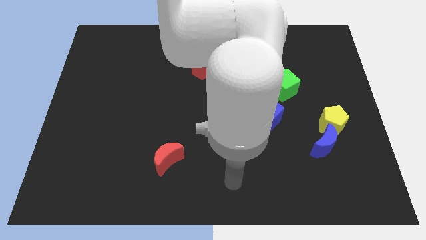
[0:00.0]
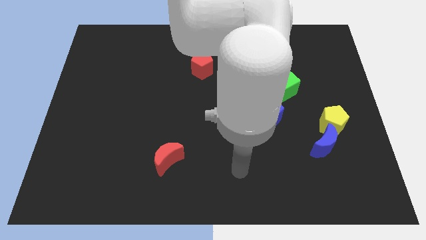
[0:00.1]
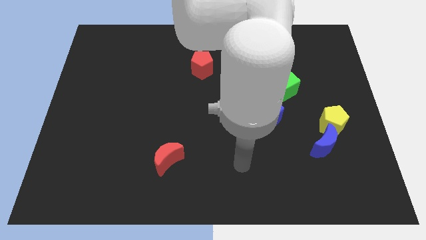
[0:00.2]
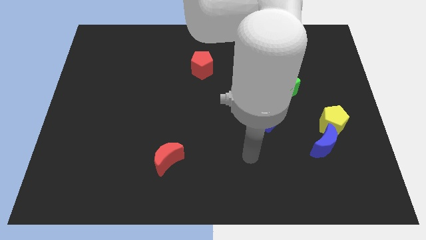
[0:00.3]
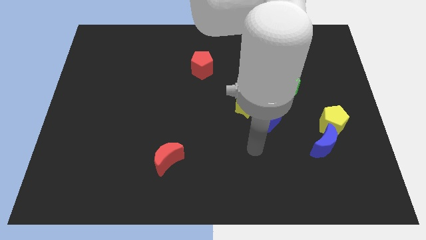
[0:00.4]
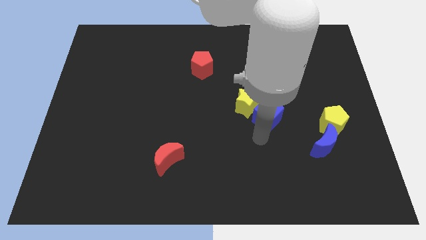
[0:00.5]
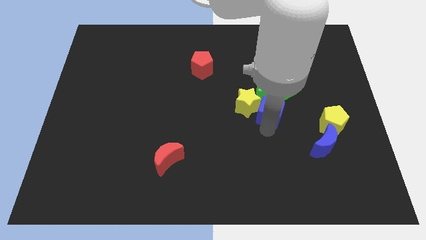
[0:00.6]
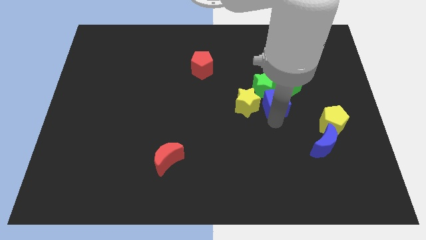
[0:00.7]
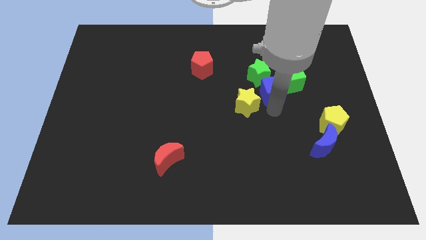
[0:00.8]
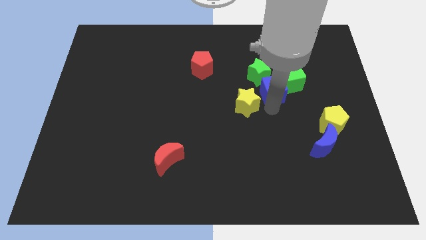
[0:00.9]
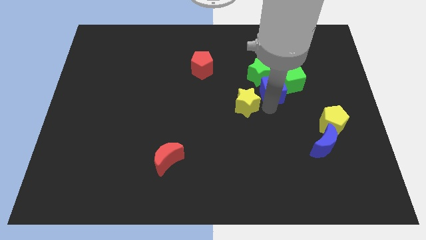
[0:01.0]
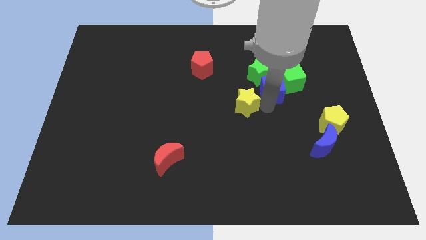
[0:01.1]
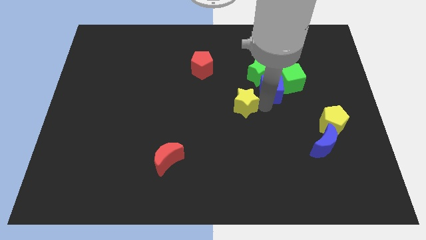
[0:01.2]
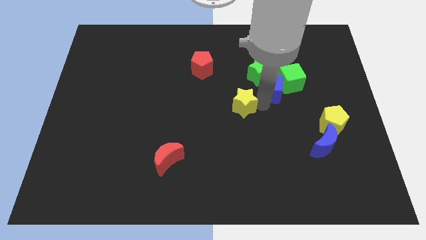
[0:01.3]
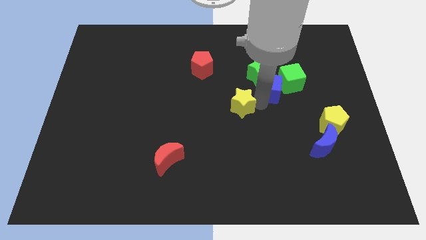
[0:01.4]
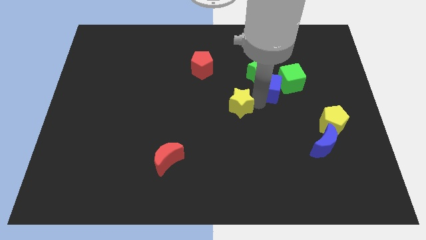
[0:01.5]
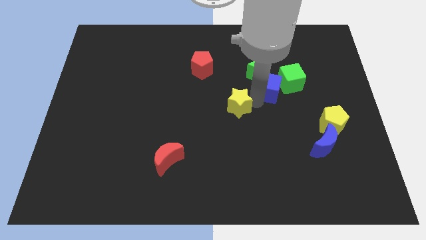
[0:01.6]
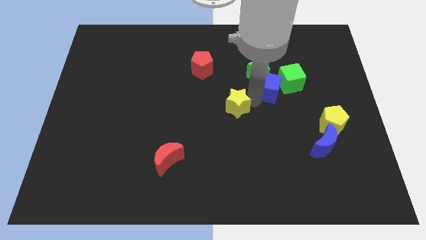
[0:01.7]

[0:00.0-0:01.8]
separate the yellow star from the green star and blue cube

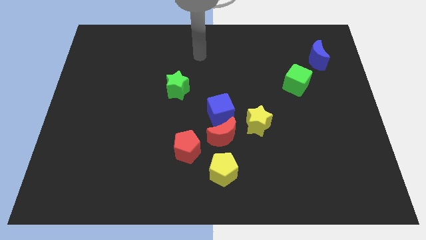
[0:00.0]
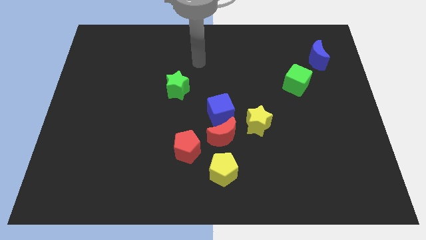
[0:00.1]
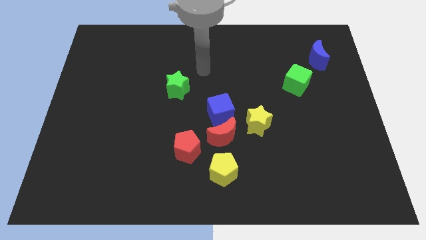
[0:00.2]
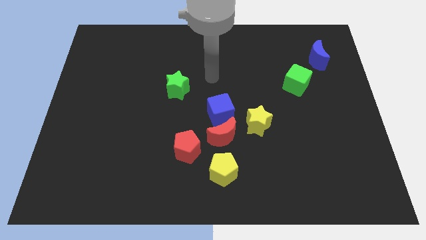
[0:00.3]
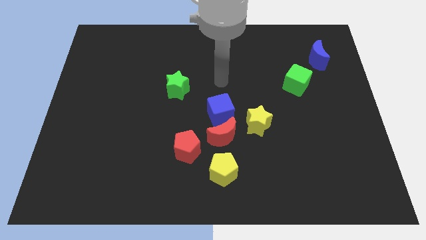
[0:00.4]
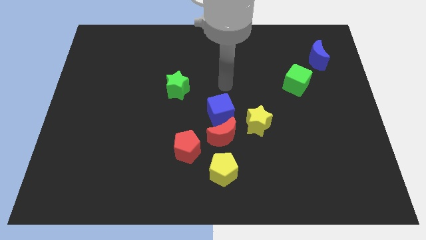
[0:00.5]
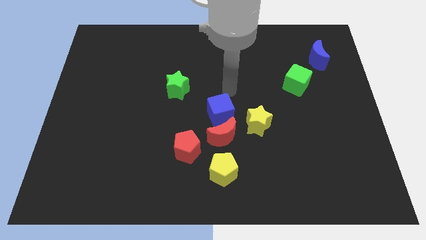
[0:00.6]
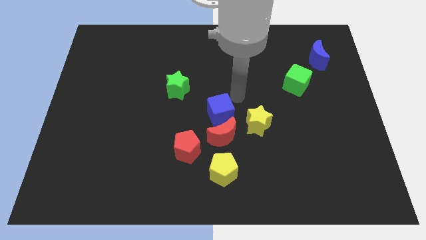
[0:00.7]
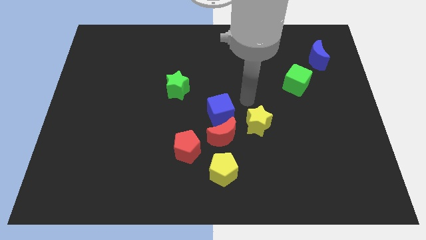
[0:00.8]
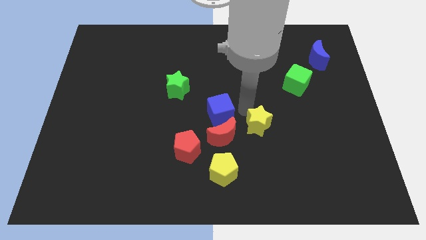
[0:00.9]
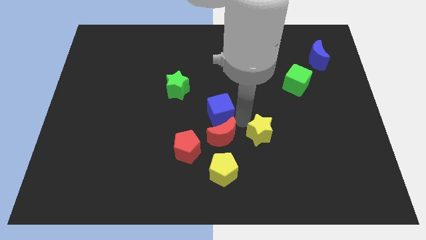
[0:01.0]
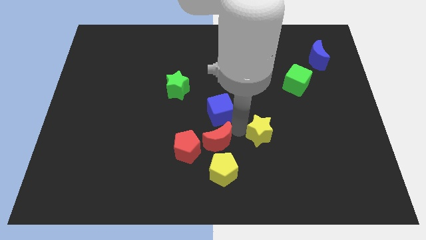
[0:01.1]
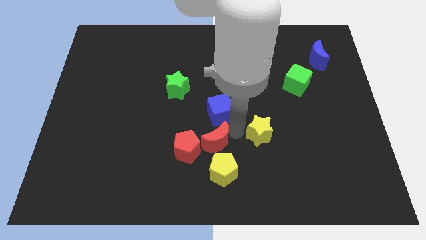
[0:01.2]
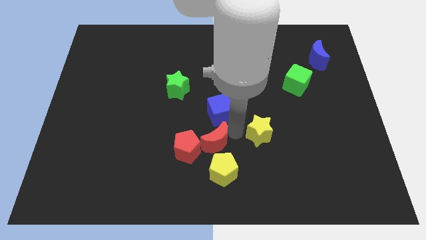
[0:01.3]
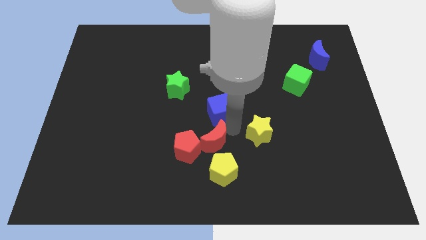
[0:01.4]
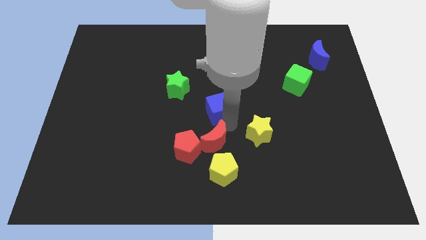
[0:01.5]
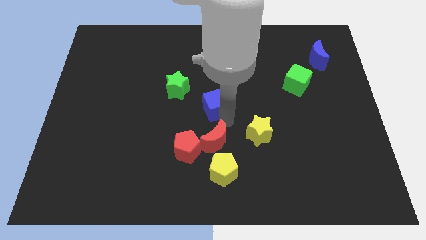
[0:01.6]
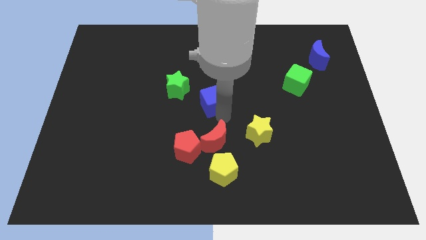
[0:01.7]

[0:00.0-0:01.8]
pull the blue cube apart from the red moon and yellow star

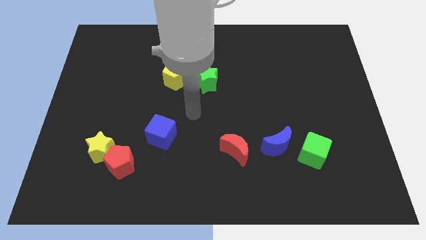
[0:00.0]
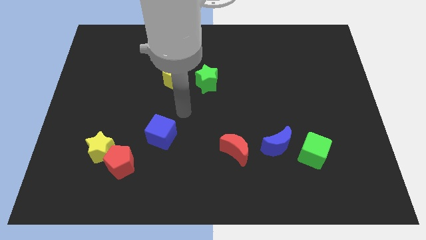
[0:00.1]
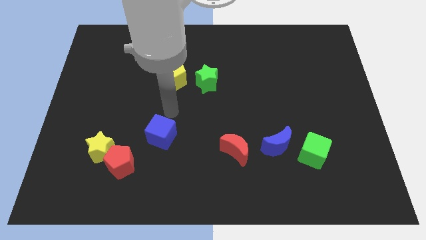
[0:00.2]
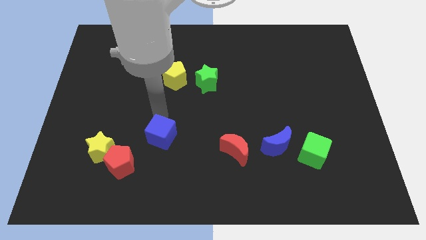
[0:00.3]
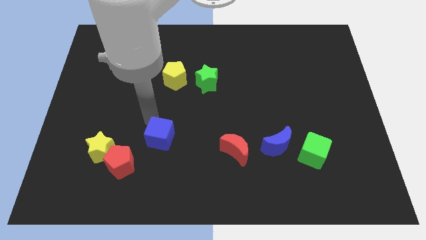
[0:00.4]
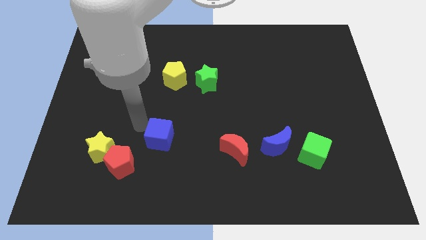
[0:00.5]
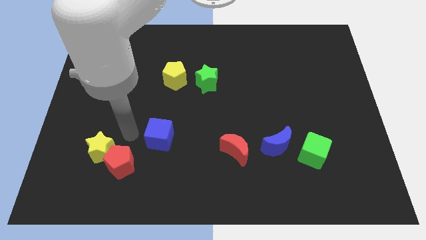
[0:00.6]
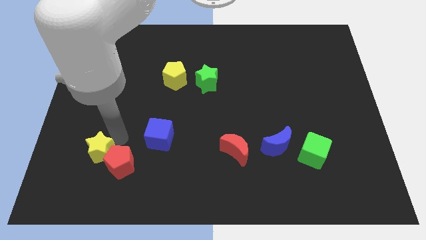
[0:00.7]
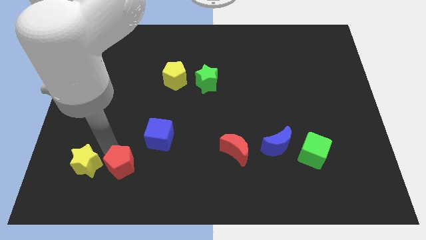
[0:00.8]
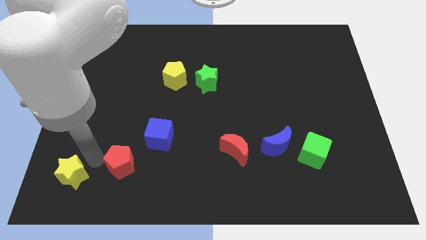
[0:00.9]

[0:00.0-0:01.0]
move the red pentagon away from the yellow star

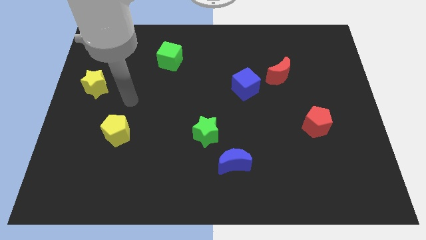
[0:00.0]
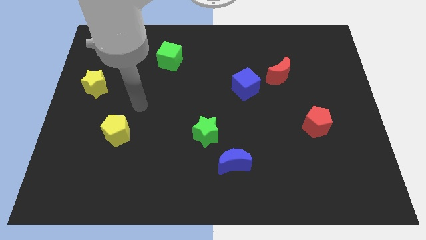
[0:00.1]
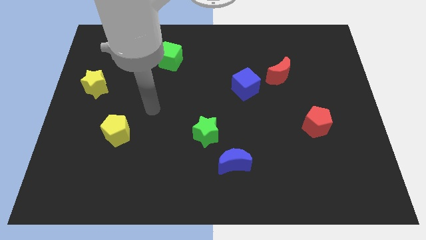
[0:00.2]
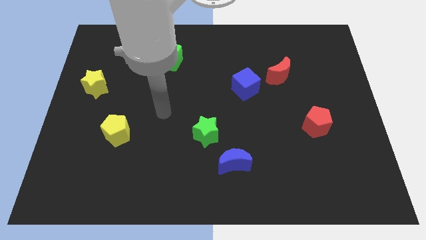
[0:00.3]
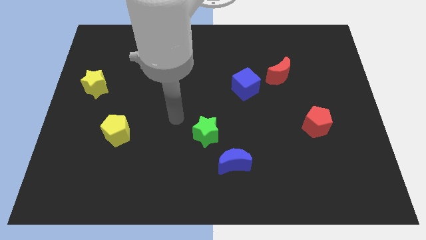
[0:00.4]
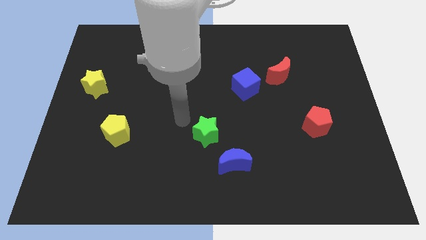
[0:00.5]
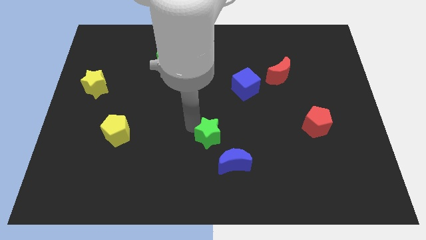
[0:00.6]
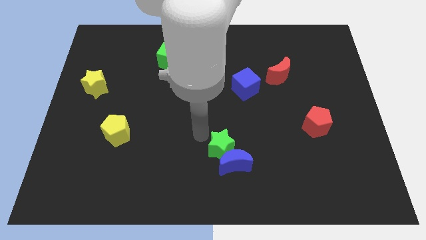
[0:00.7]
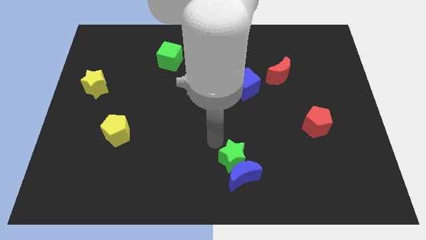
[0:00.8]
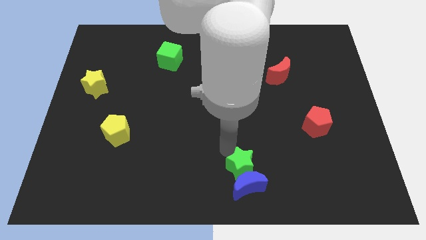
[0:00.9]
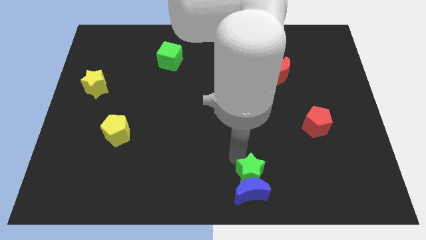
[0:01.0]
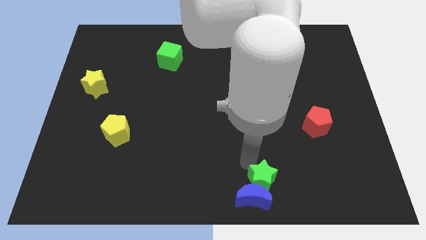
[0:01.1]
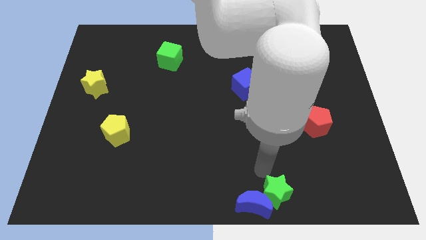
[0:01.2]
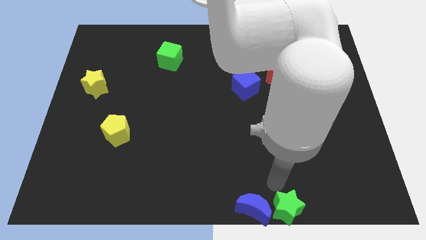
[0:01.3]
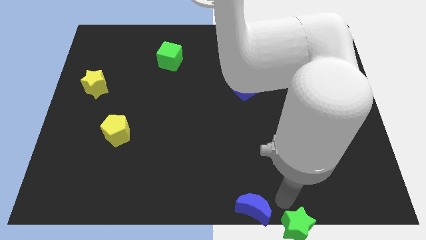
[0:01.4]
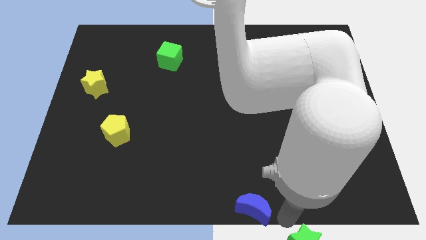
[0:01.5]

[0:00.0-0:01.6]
move the blue moon away from the green star

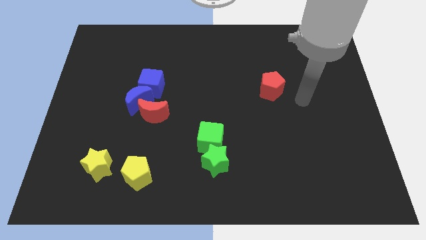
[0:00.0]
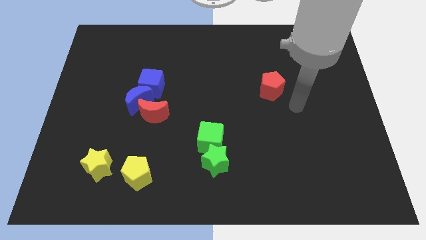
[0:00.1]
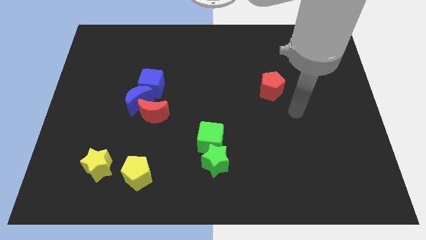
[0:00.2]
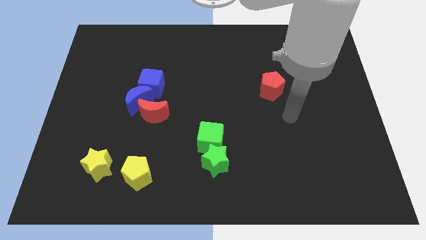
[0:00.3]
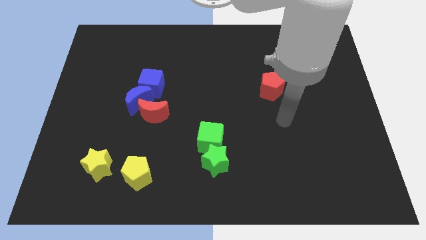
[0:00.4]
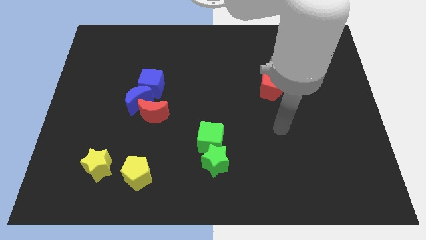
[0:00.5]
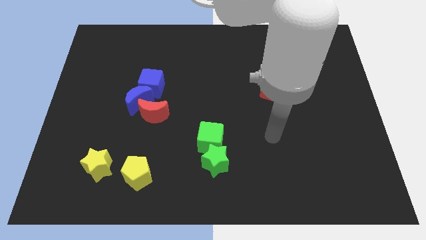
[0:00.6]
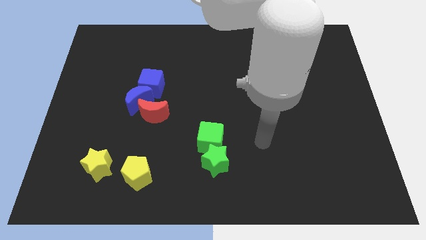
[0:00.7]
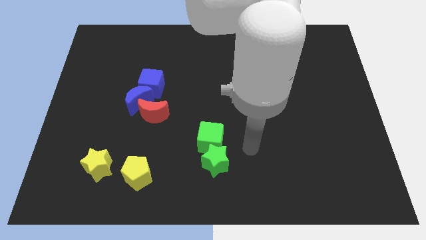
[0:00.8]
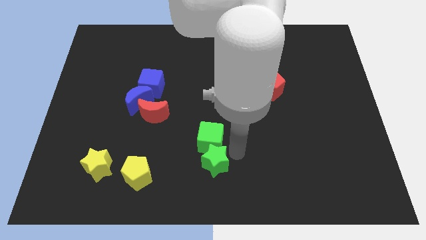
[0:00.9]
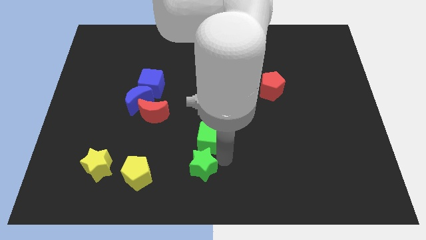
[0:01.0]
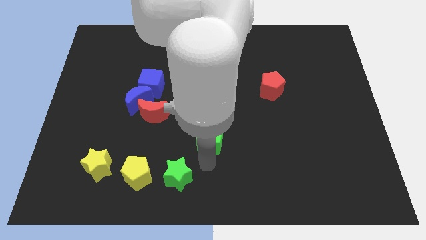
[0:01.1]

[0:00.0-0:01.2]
pull the green cube apart from the green star

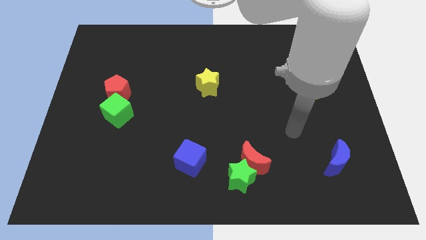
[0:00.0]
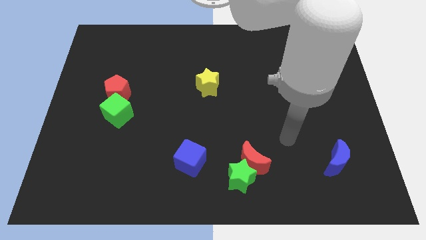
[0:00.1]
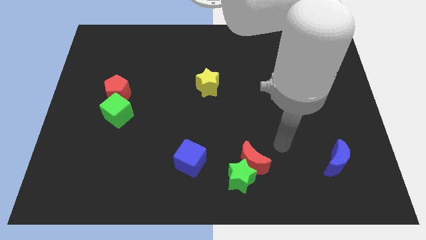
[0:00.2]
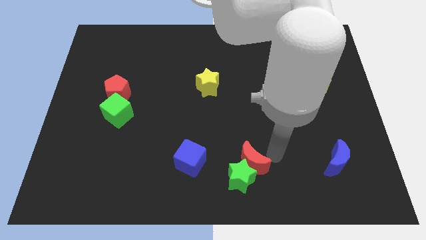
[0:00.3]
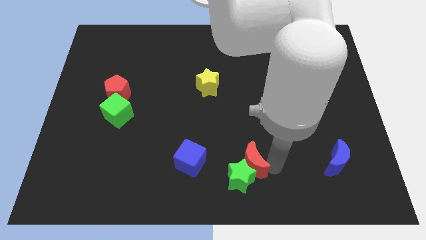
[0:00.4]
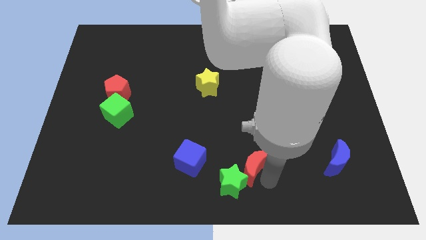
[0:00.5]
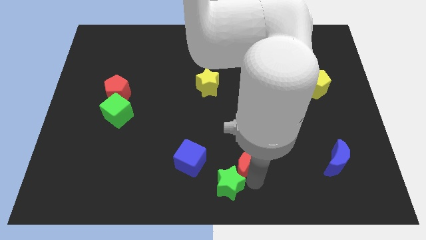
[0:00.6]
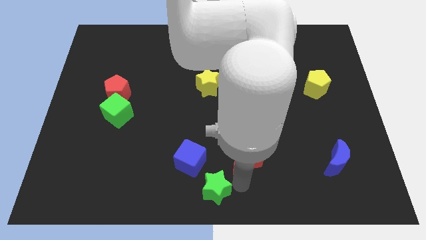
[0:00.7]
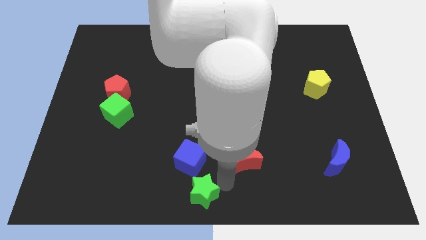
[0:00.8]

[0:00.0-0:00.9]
pull the red moon apart from the green star

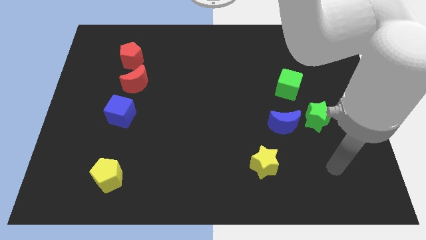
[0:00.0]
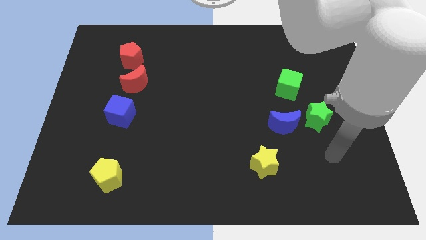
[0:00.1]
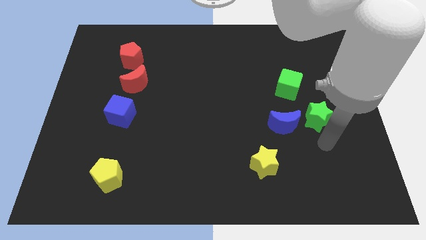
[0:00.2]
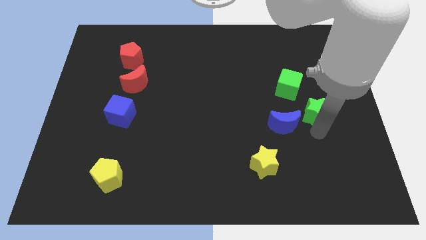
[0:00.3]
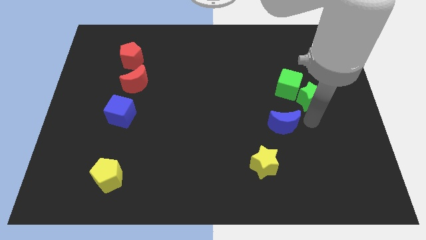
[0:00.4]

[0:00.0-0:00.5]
pull the blue moon apart from the green star

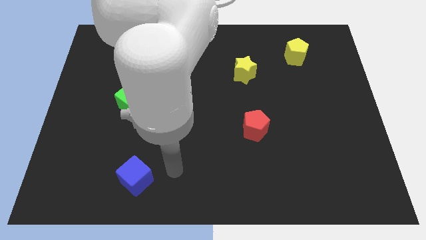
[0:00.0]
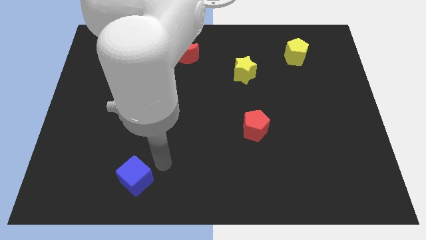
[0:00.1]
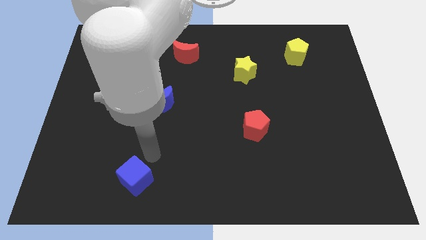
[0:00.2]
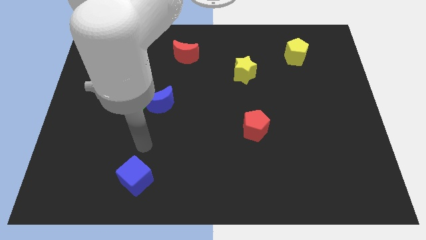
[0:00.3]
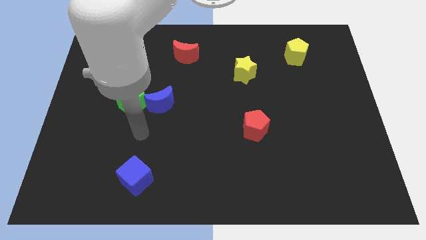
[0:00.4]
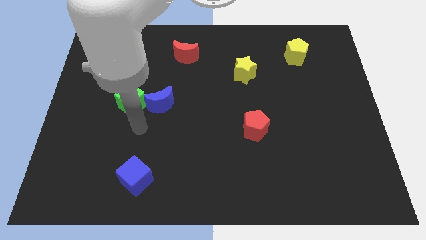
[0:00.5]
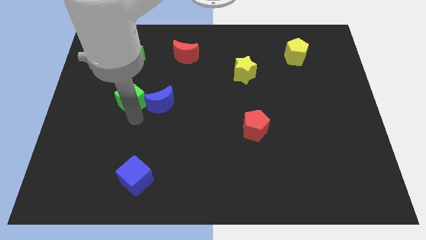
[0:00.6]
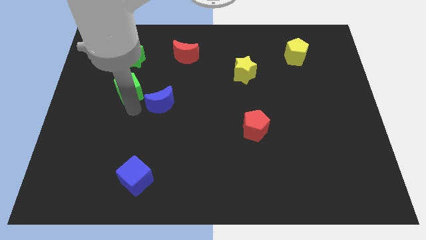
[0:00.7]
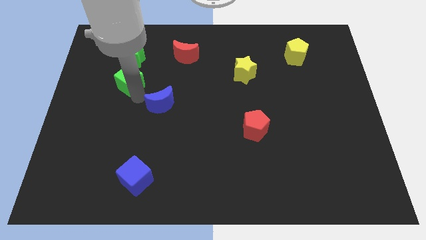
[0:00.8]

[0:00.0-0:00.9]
separate the blue moon from the green cube
